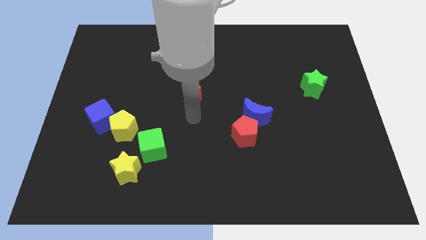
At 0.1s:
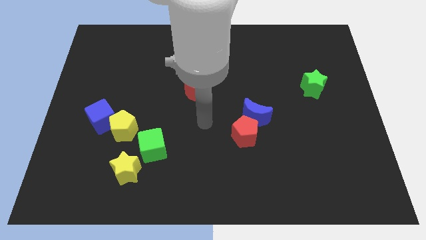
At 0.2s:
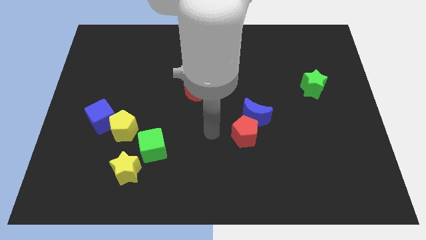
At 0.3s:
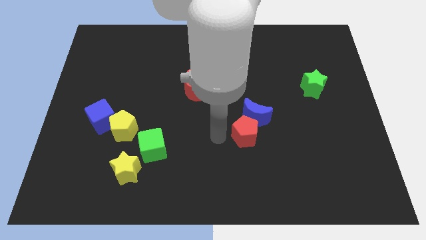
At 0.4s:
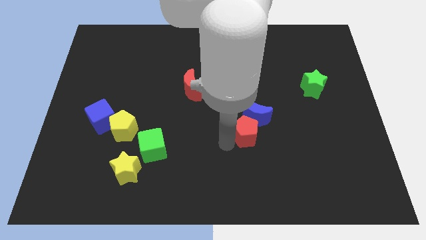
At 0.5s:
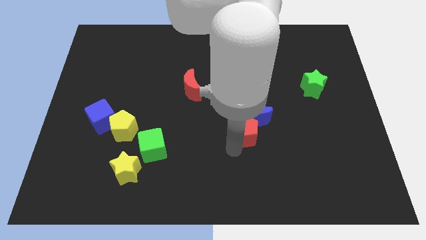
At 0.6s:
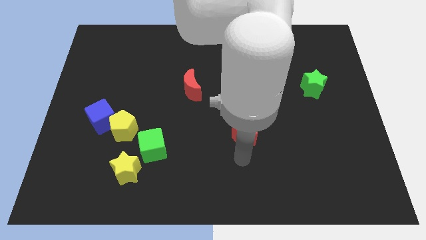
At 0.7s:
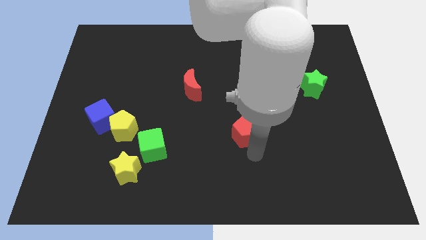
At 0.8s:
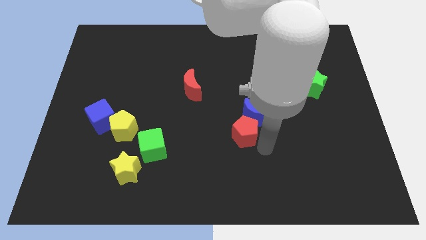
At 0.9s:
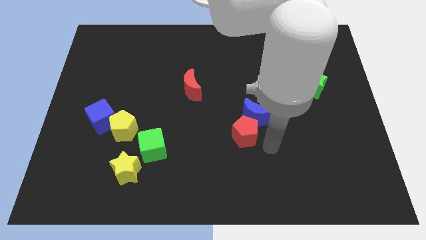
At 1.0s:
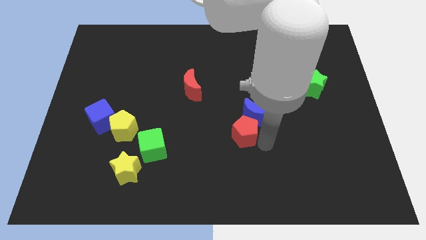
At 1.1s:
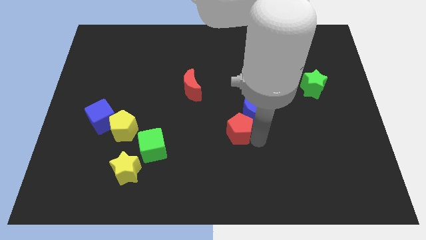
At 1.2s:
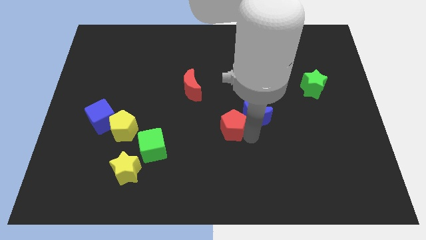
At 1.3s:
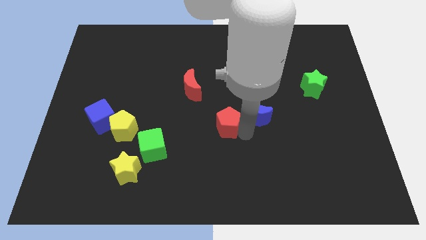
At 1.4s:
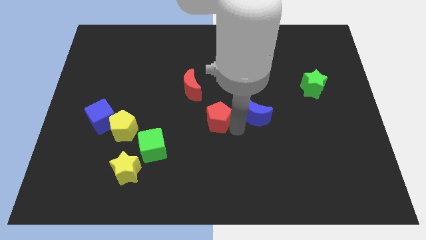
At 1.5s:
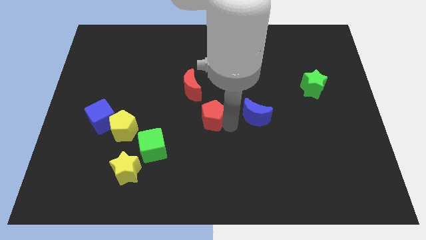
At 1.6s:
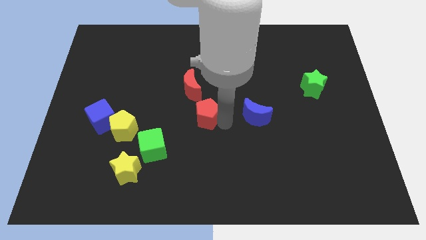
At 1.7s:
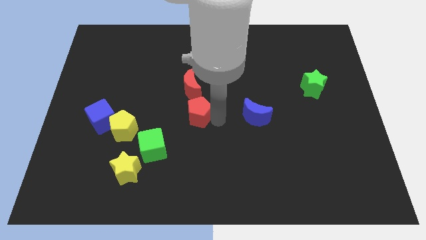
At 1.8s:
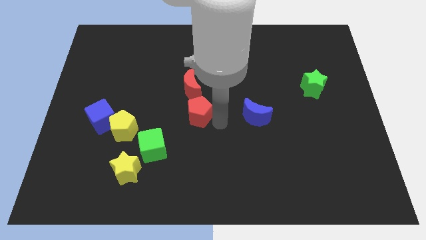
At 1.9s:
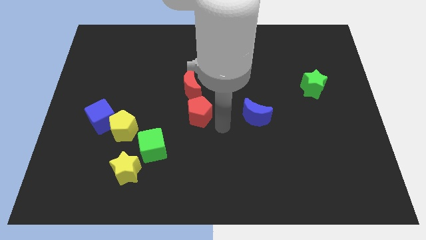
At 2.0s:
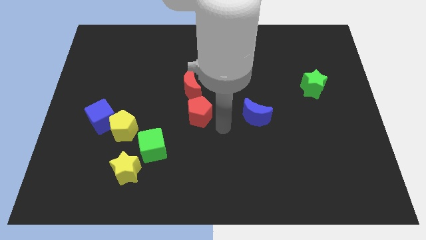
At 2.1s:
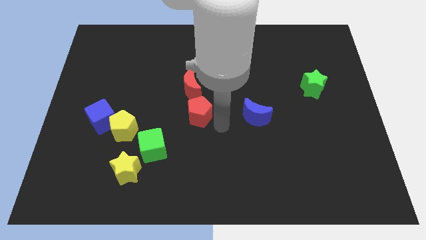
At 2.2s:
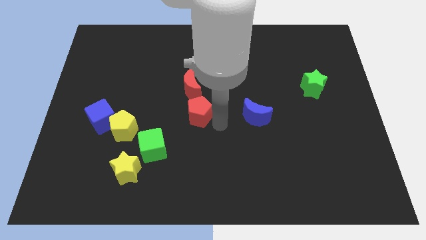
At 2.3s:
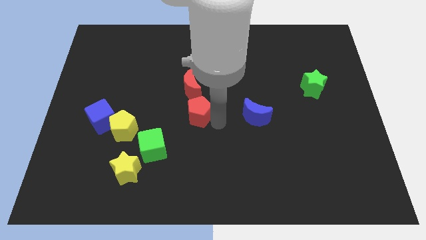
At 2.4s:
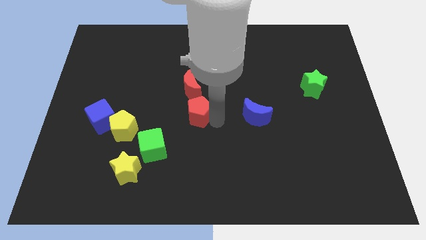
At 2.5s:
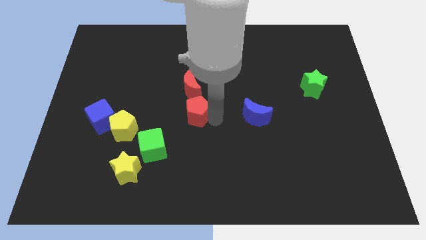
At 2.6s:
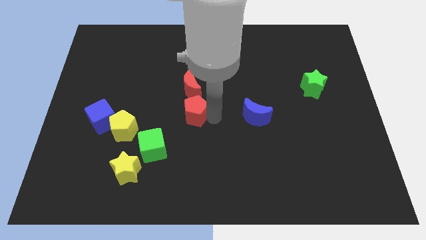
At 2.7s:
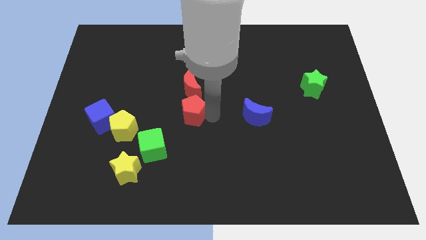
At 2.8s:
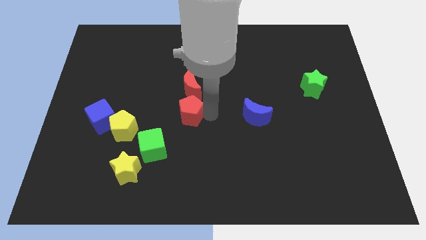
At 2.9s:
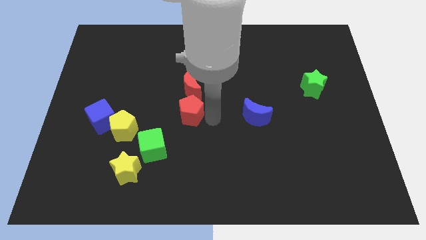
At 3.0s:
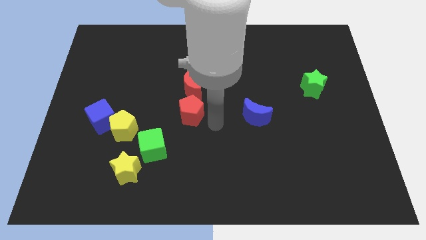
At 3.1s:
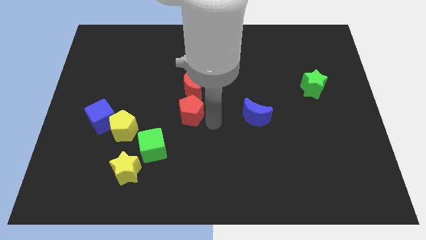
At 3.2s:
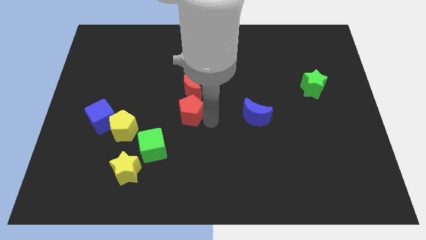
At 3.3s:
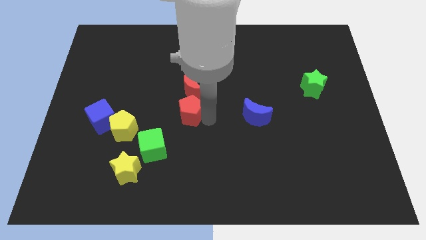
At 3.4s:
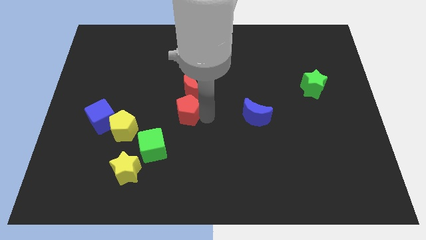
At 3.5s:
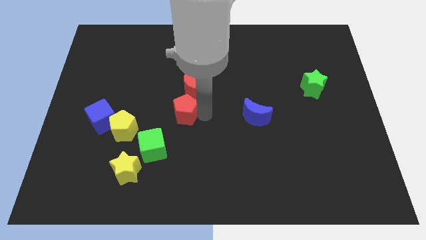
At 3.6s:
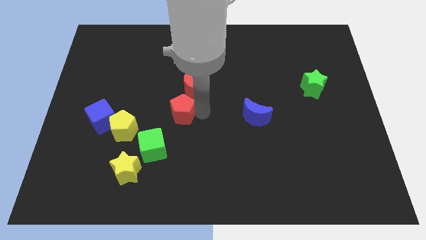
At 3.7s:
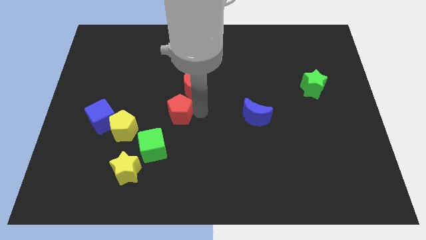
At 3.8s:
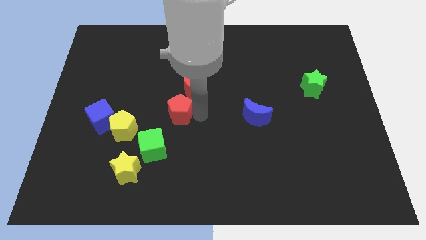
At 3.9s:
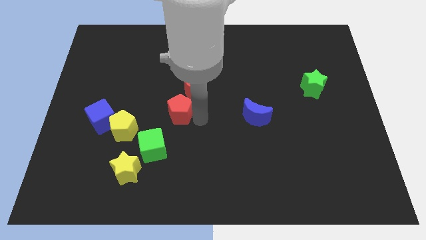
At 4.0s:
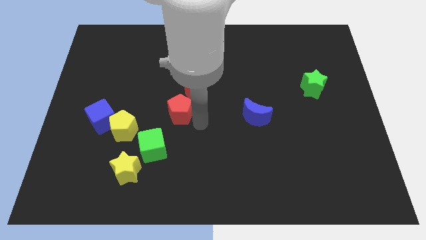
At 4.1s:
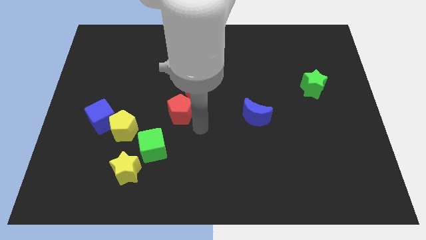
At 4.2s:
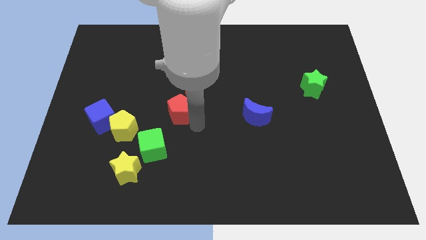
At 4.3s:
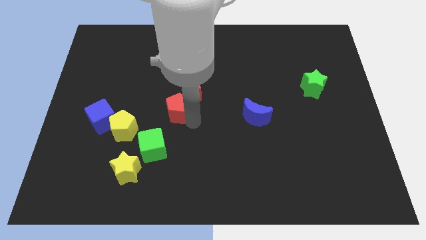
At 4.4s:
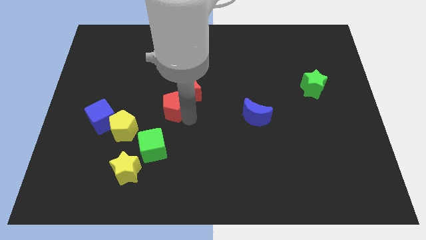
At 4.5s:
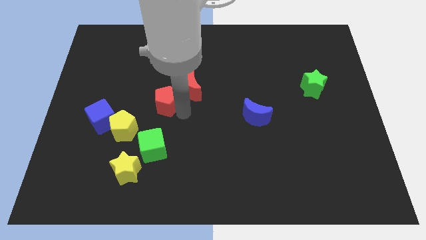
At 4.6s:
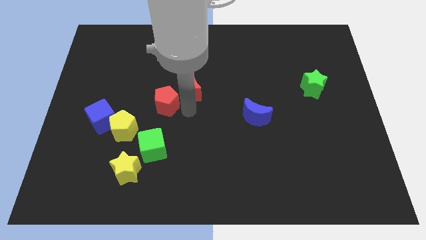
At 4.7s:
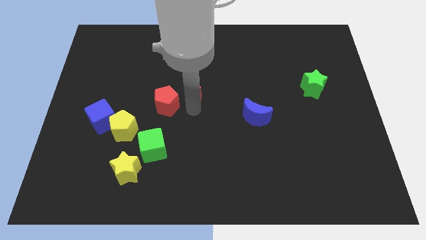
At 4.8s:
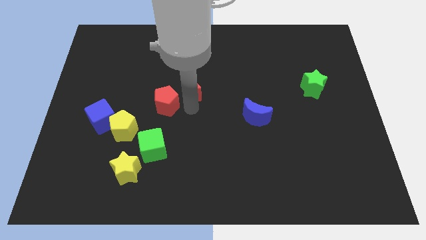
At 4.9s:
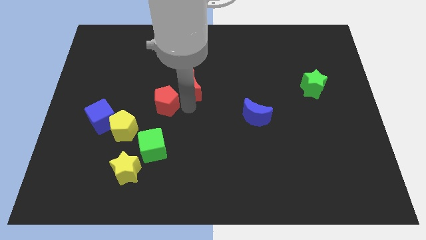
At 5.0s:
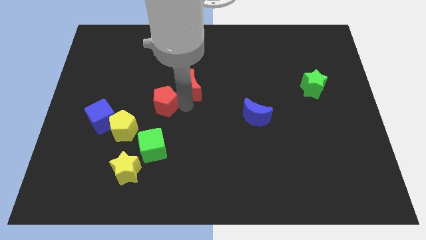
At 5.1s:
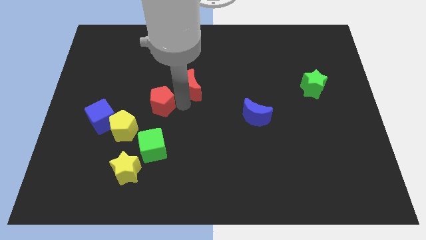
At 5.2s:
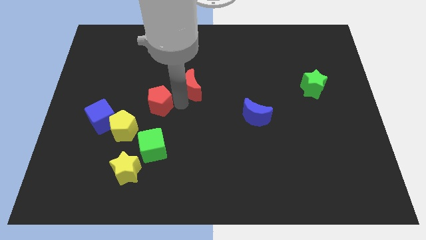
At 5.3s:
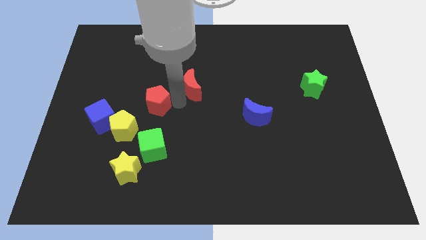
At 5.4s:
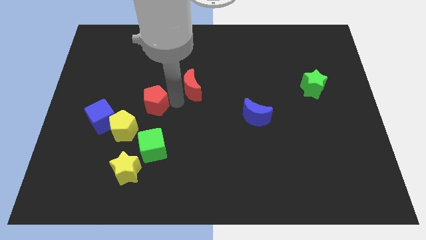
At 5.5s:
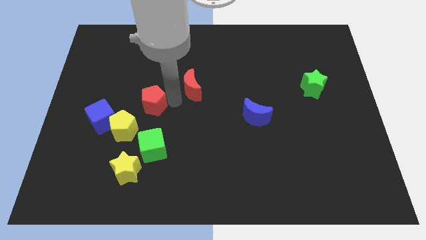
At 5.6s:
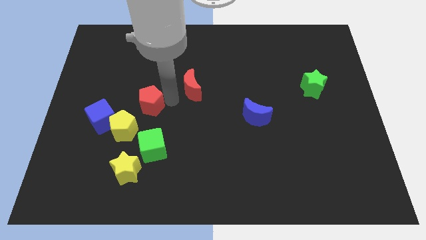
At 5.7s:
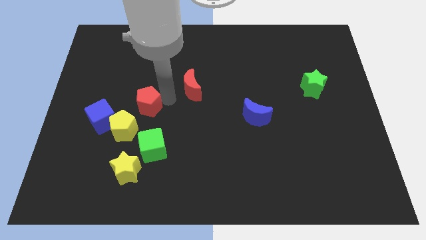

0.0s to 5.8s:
move the red pentagon above the yellow pentagon

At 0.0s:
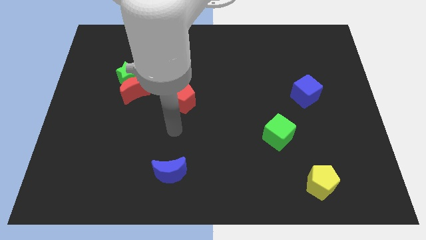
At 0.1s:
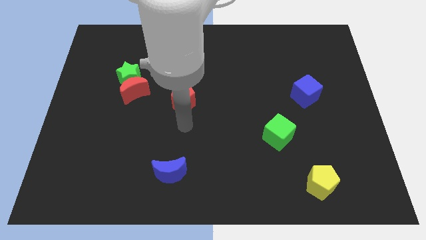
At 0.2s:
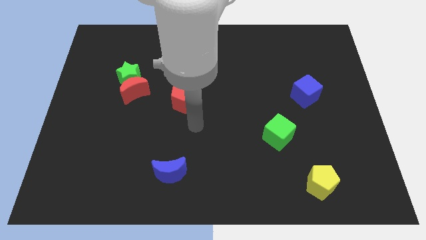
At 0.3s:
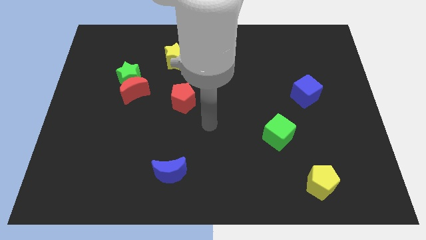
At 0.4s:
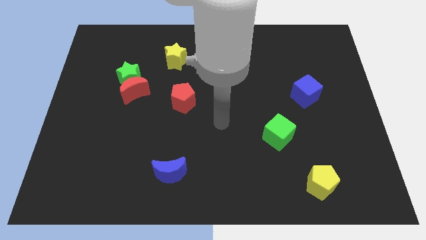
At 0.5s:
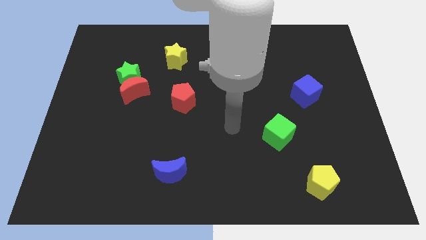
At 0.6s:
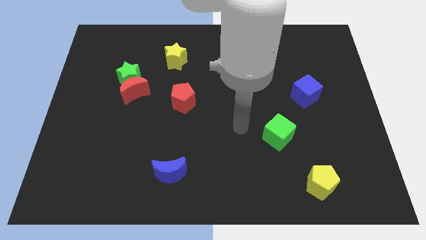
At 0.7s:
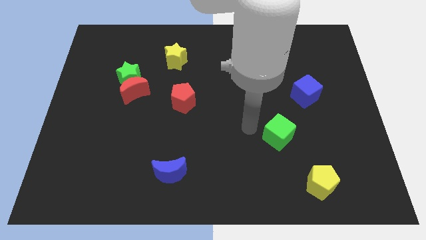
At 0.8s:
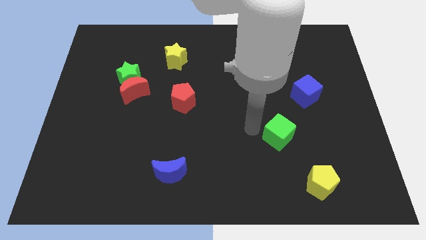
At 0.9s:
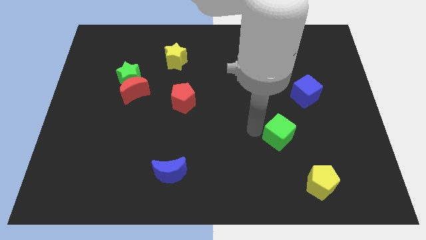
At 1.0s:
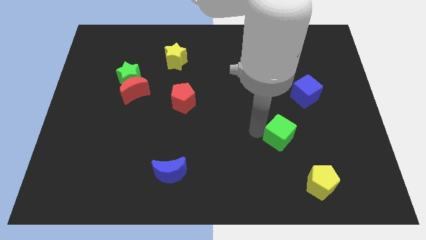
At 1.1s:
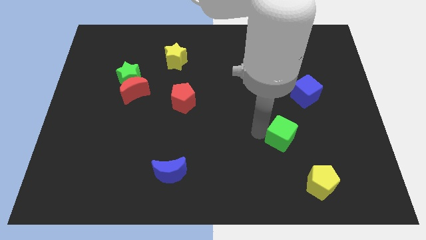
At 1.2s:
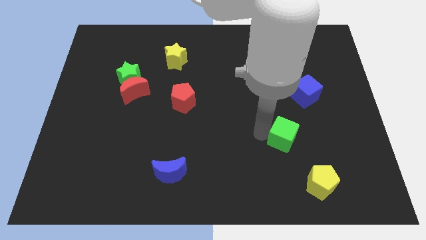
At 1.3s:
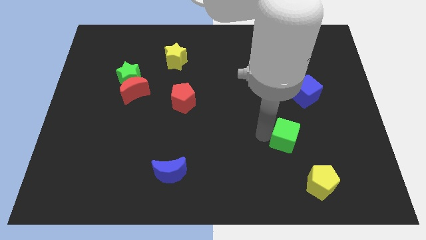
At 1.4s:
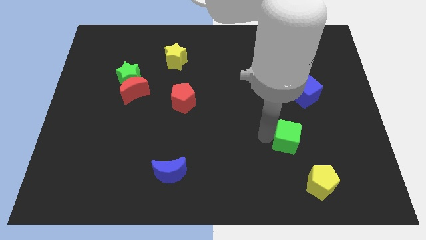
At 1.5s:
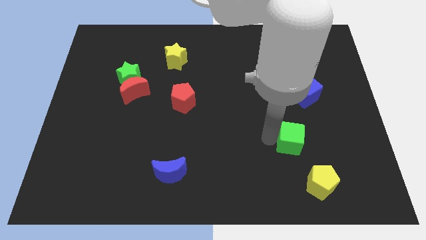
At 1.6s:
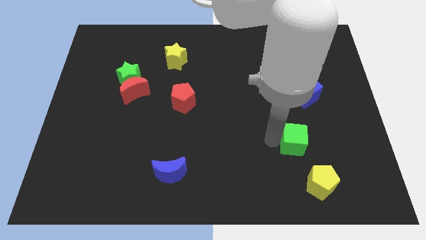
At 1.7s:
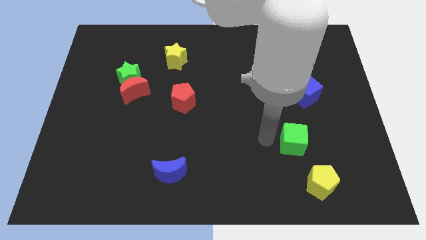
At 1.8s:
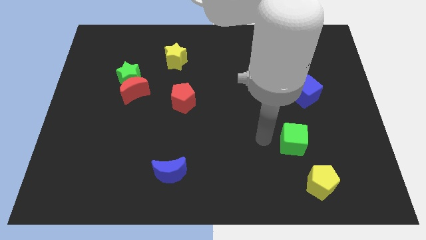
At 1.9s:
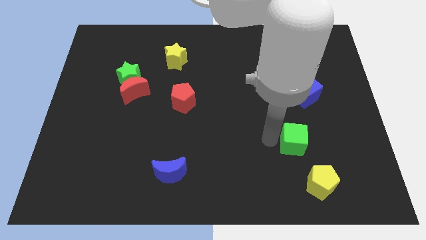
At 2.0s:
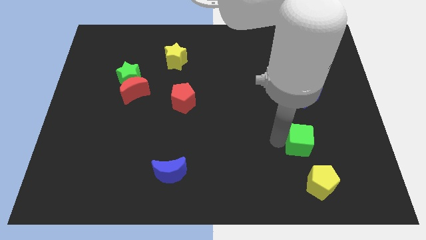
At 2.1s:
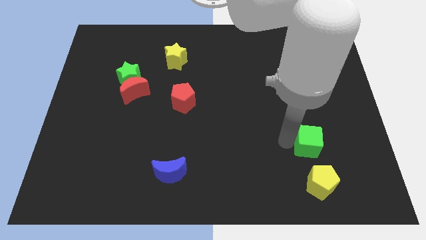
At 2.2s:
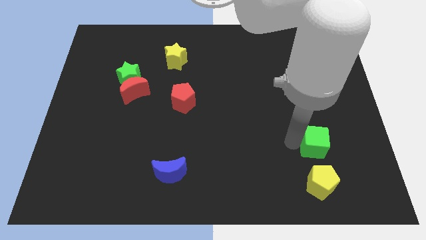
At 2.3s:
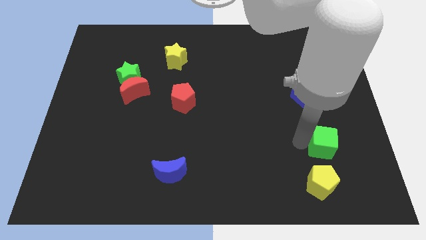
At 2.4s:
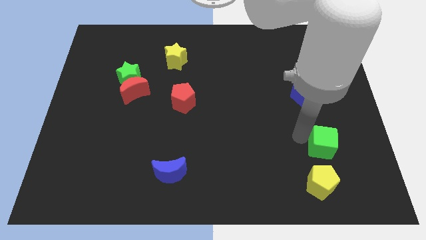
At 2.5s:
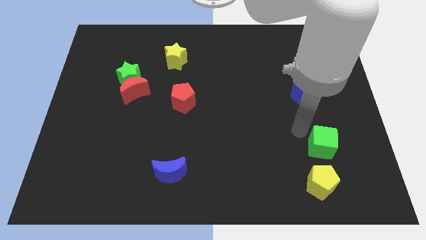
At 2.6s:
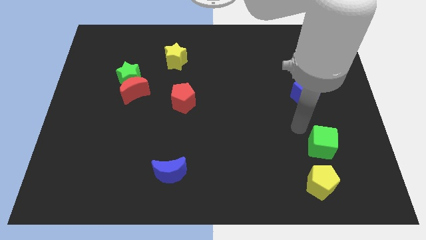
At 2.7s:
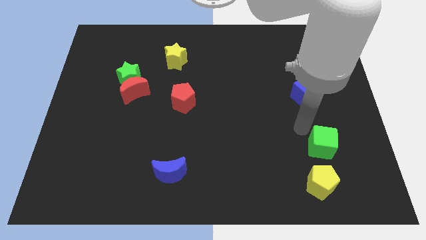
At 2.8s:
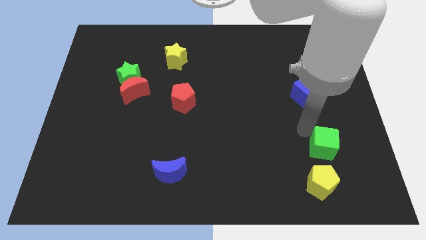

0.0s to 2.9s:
slide the green cube to the top right of the yellow pentagon
